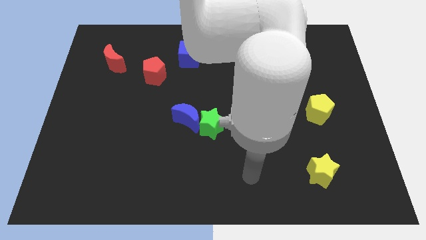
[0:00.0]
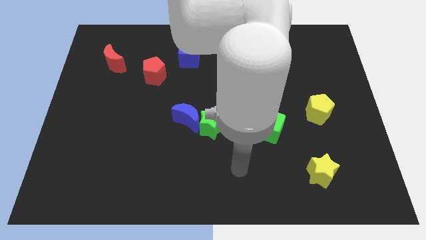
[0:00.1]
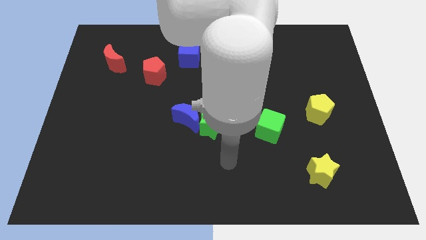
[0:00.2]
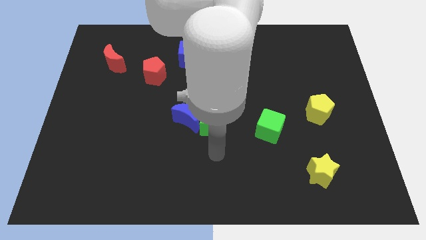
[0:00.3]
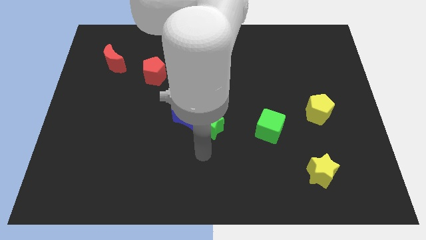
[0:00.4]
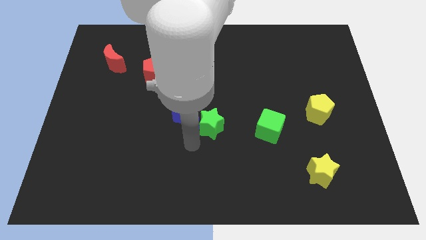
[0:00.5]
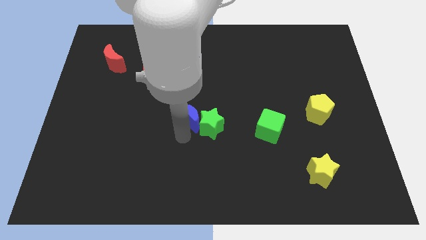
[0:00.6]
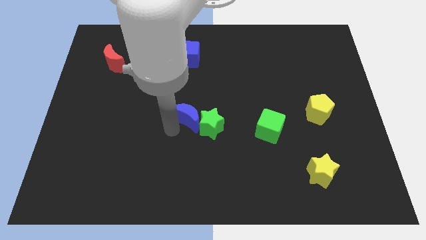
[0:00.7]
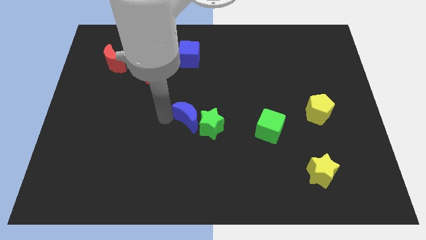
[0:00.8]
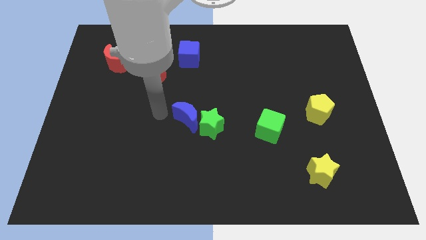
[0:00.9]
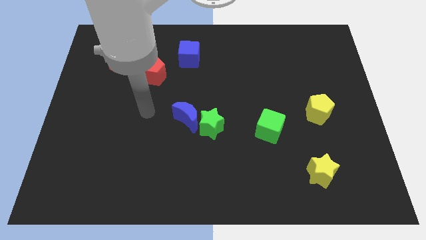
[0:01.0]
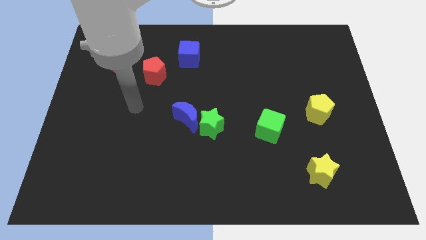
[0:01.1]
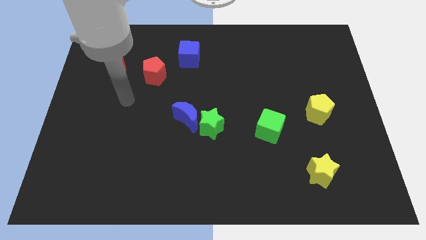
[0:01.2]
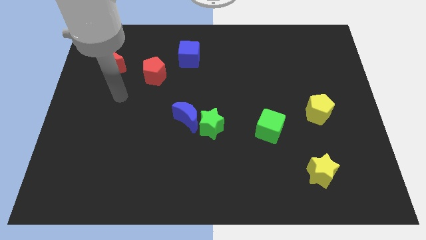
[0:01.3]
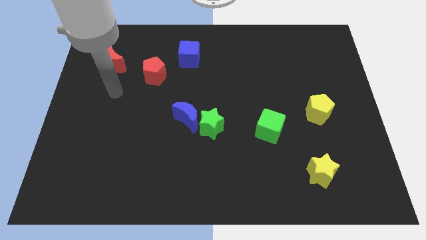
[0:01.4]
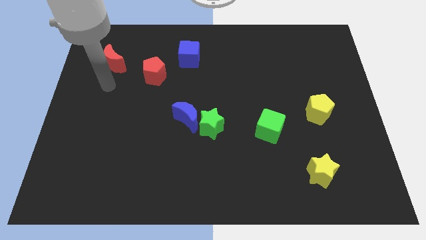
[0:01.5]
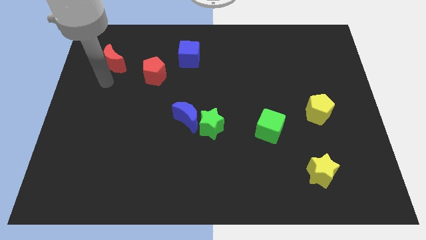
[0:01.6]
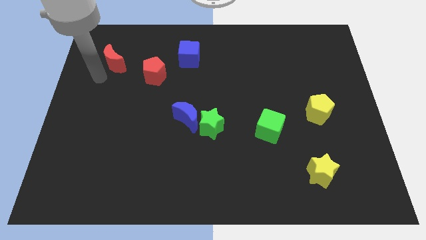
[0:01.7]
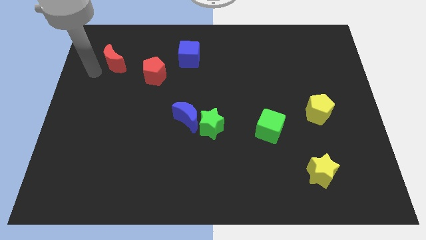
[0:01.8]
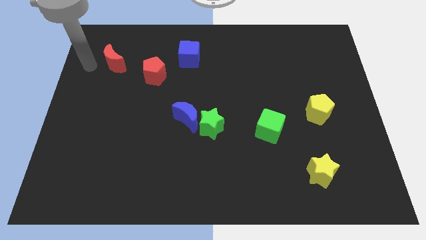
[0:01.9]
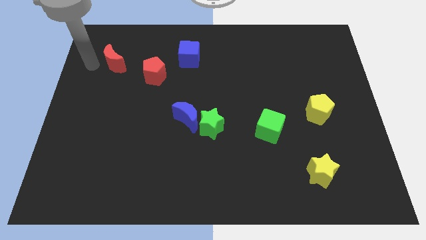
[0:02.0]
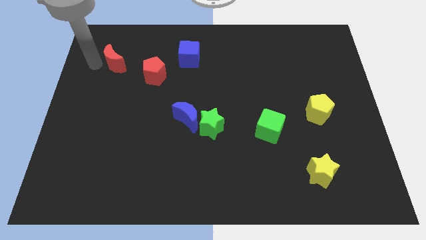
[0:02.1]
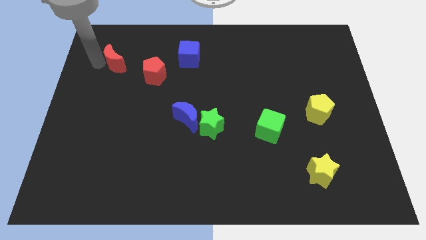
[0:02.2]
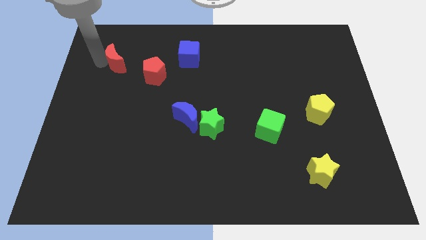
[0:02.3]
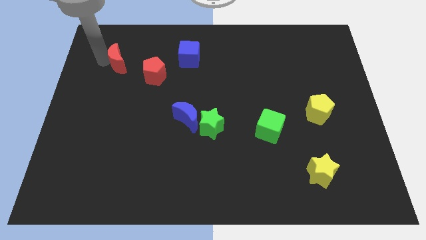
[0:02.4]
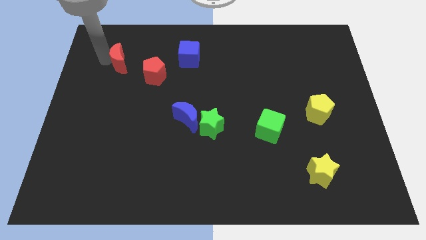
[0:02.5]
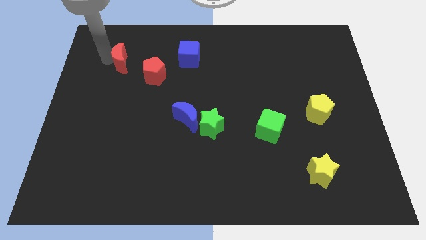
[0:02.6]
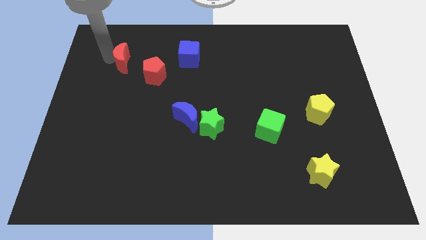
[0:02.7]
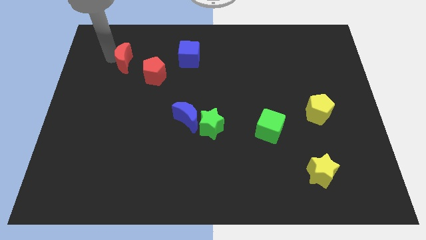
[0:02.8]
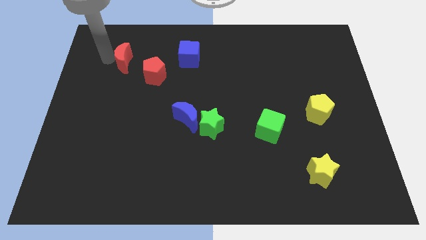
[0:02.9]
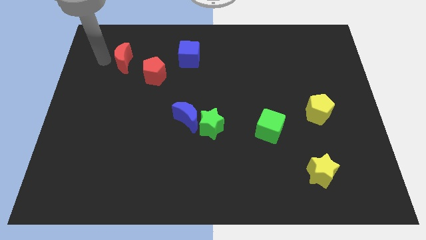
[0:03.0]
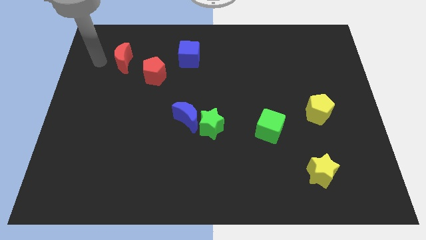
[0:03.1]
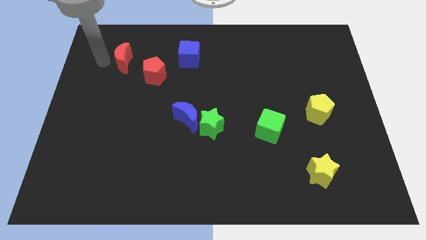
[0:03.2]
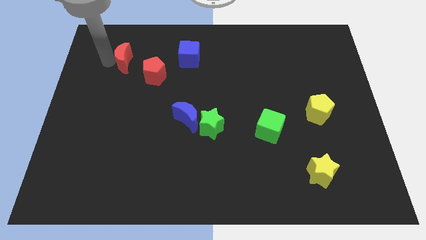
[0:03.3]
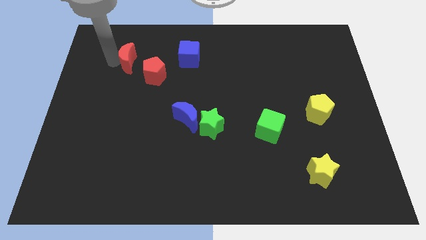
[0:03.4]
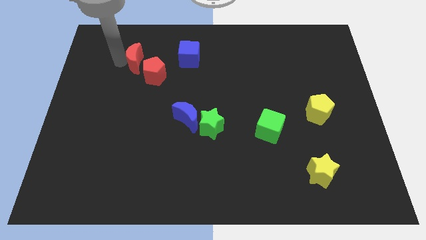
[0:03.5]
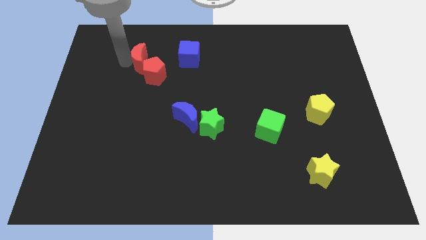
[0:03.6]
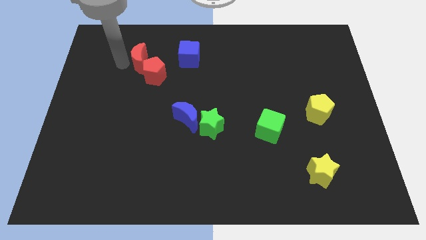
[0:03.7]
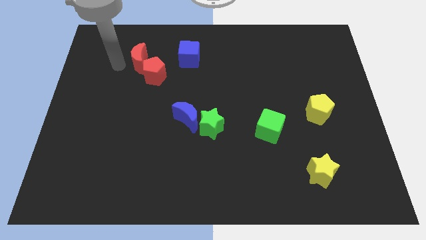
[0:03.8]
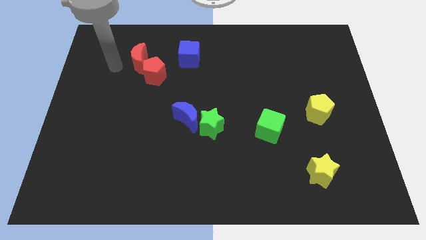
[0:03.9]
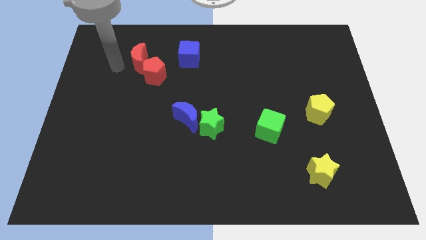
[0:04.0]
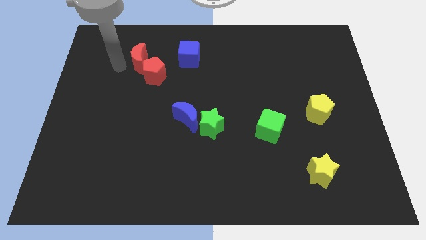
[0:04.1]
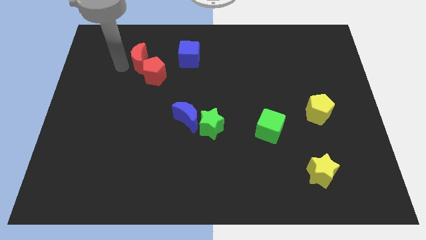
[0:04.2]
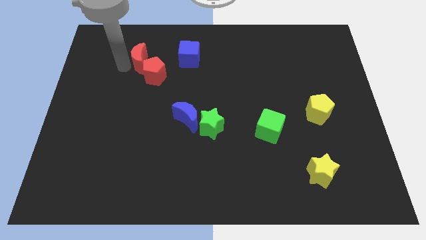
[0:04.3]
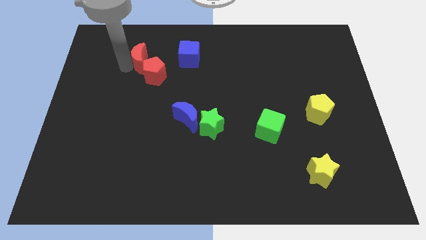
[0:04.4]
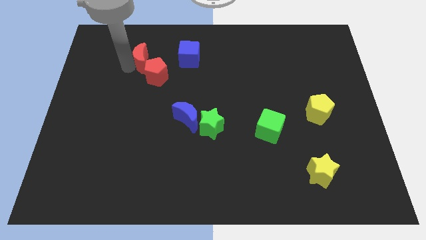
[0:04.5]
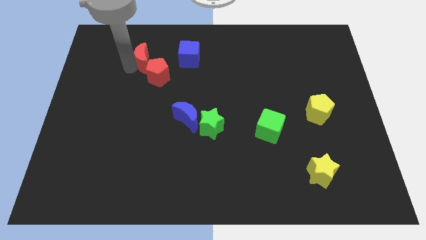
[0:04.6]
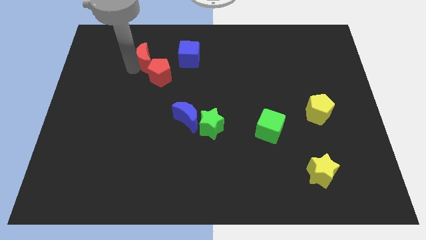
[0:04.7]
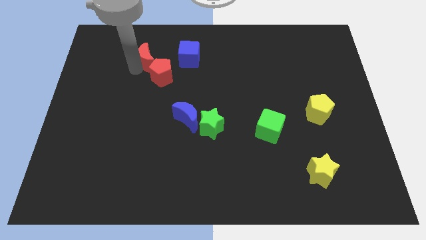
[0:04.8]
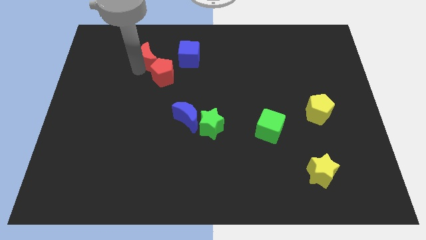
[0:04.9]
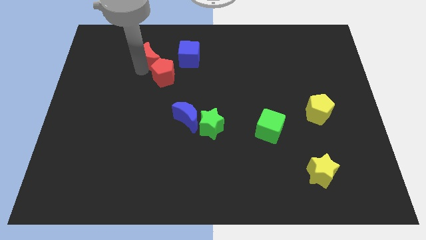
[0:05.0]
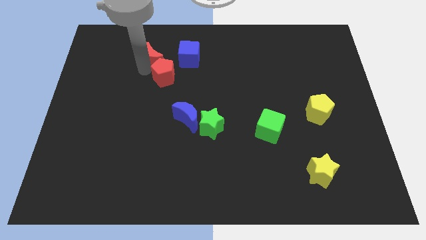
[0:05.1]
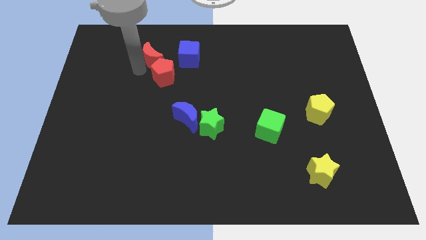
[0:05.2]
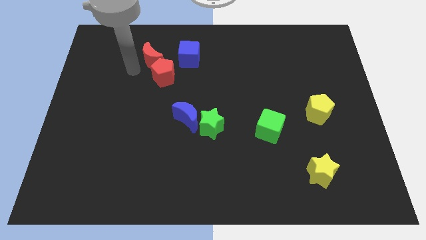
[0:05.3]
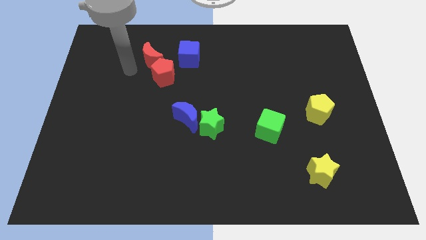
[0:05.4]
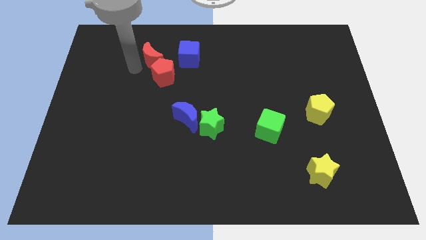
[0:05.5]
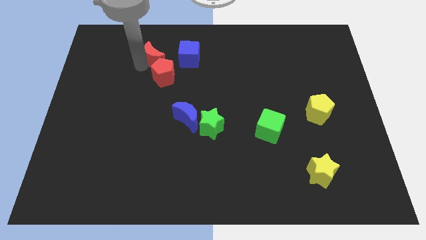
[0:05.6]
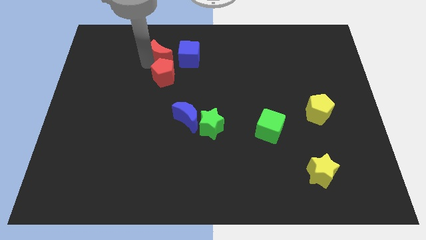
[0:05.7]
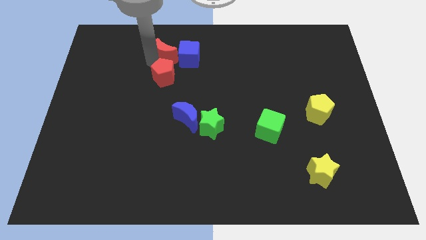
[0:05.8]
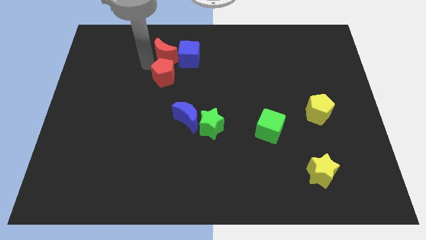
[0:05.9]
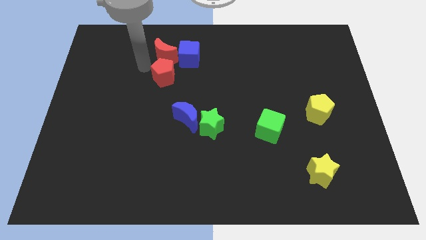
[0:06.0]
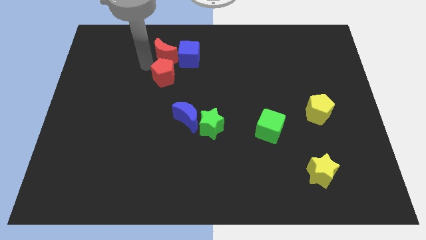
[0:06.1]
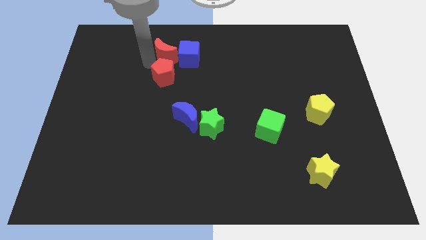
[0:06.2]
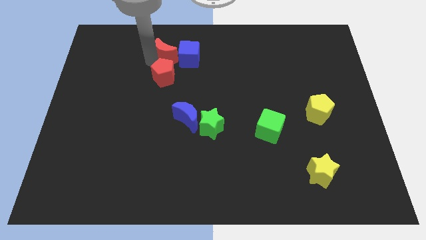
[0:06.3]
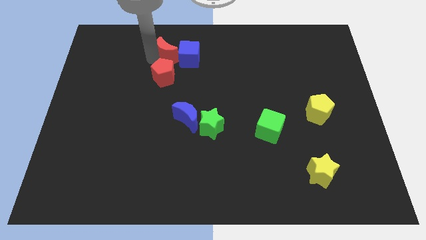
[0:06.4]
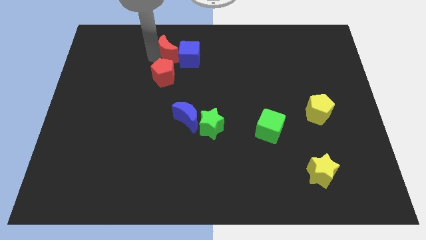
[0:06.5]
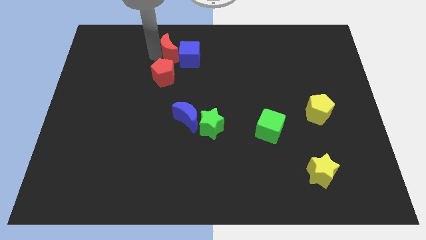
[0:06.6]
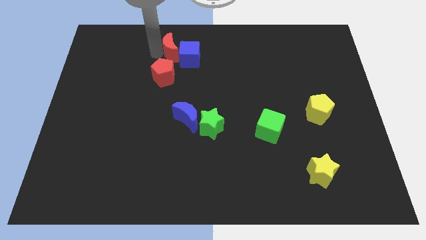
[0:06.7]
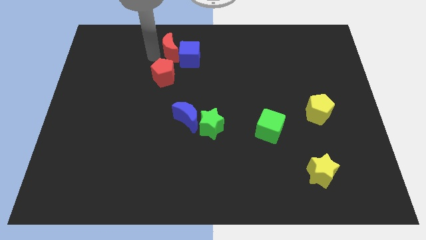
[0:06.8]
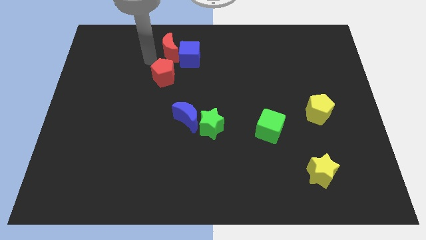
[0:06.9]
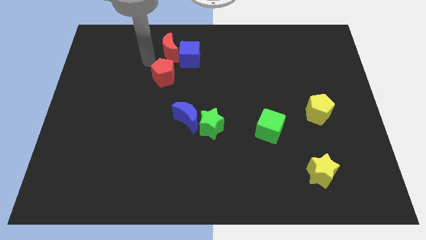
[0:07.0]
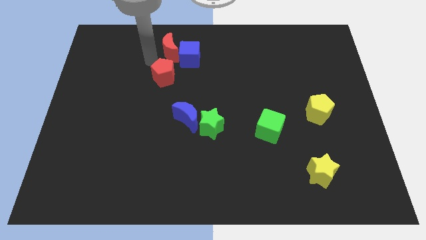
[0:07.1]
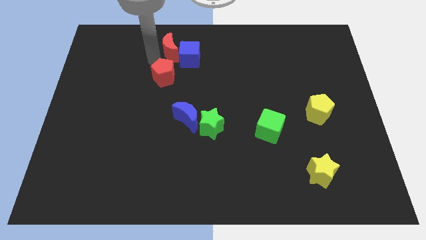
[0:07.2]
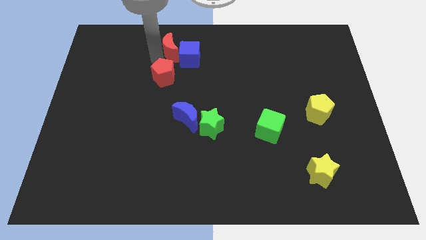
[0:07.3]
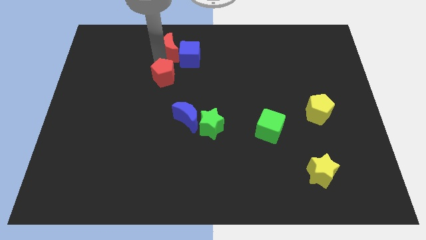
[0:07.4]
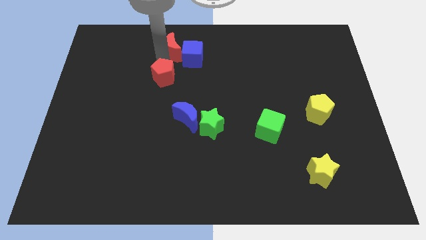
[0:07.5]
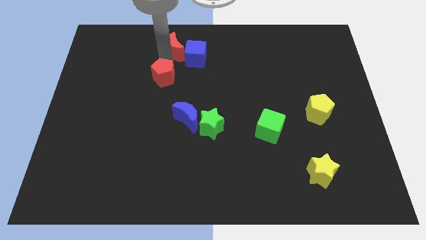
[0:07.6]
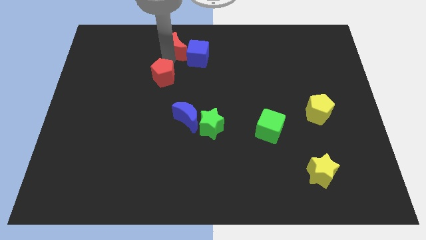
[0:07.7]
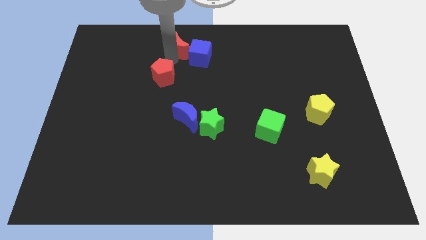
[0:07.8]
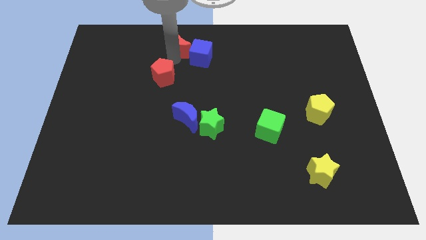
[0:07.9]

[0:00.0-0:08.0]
put the red moon to the top side
